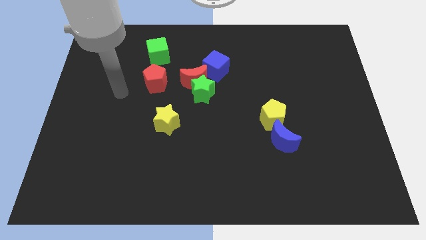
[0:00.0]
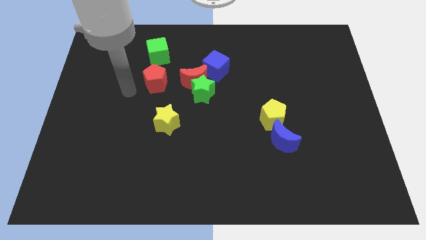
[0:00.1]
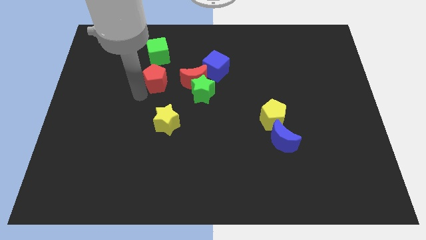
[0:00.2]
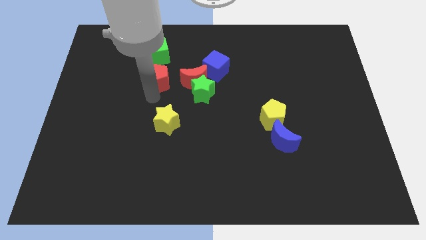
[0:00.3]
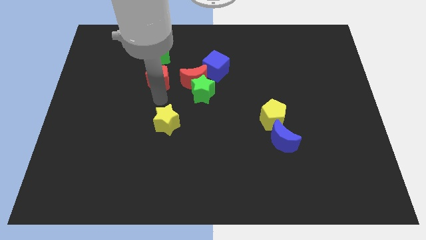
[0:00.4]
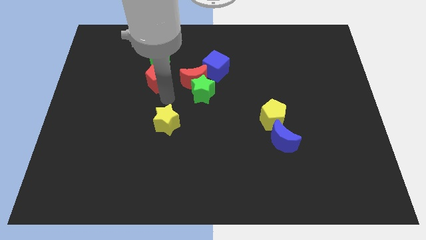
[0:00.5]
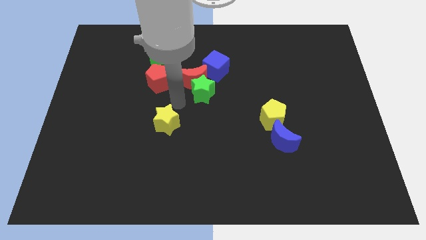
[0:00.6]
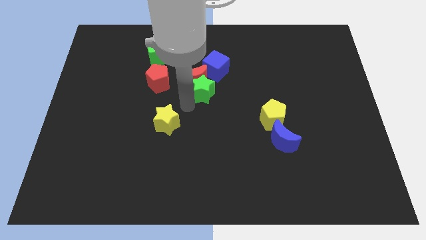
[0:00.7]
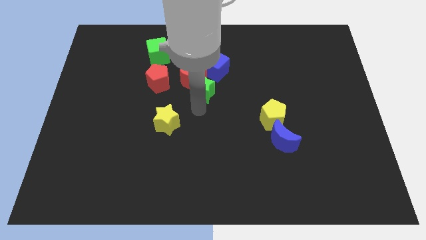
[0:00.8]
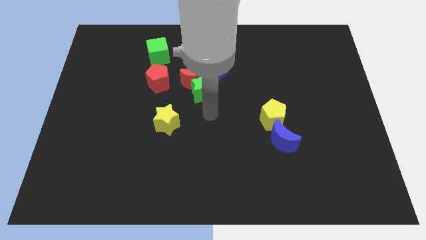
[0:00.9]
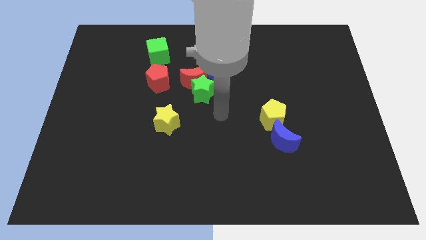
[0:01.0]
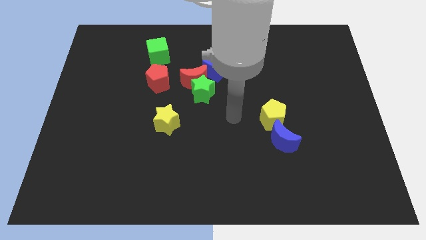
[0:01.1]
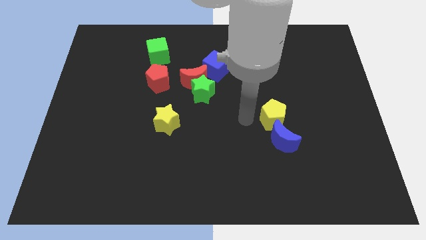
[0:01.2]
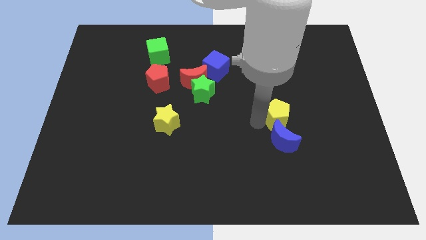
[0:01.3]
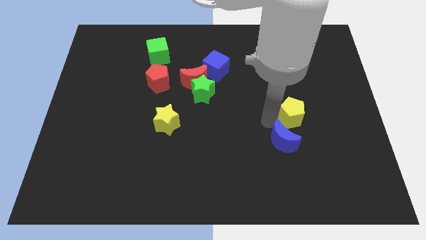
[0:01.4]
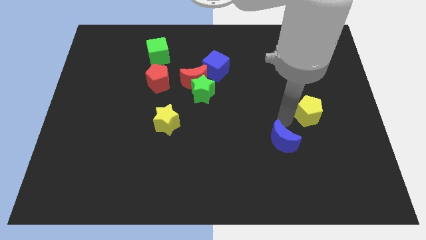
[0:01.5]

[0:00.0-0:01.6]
move the blue moon away from the yellow pentagon

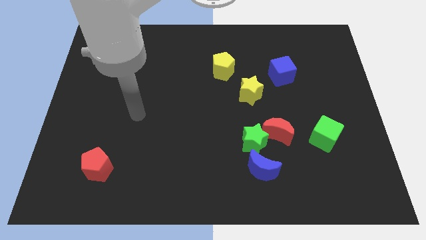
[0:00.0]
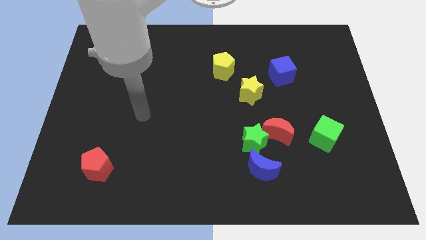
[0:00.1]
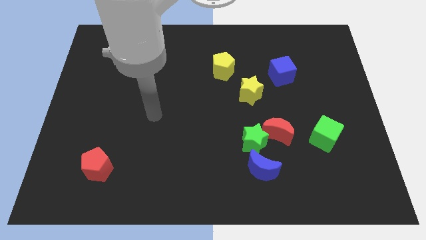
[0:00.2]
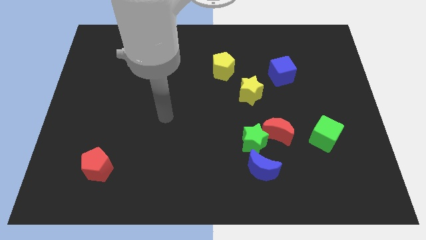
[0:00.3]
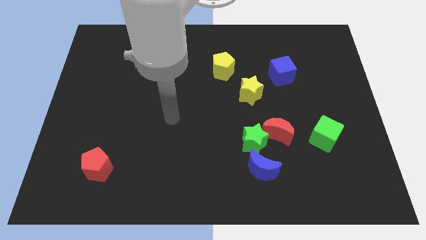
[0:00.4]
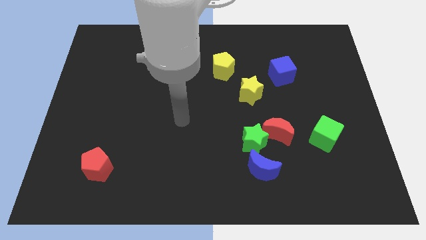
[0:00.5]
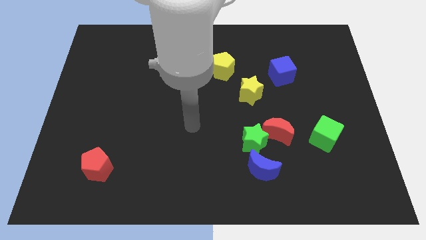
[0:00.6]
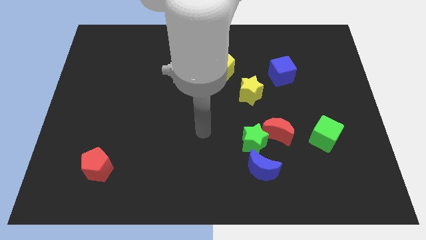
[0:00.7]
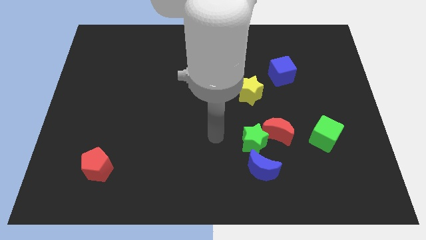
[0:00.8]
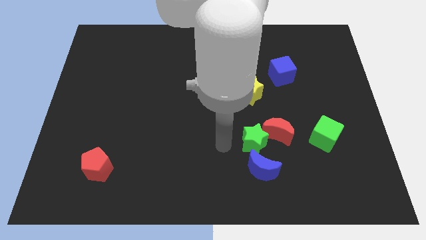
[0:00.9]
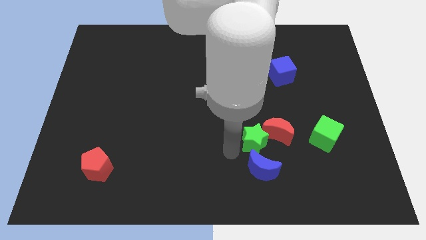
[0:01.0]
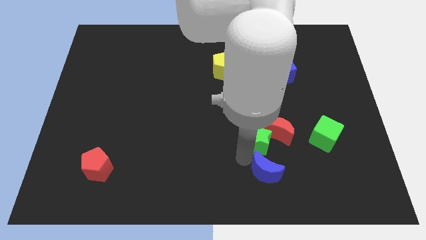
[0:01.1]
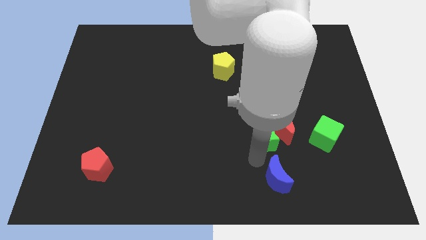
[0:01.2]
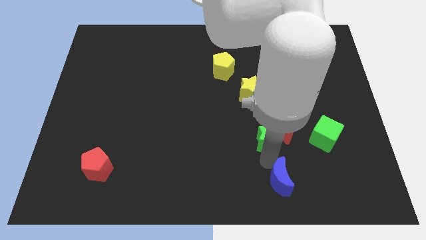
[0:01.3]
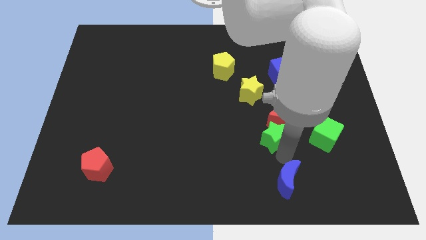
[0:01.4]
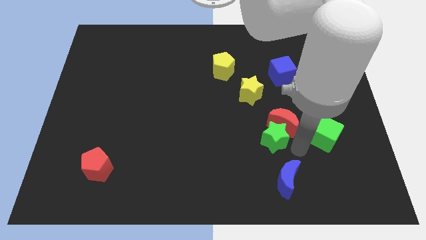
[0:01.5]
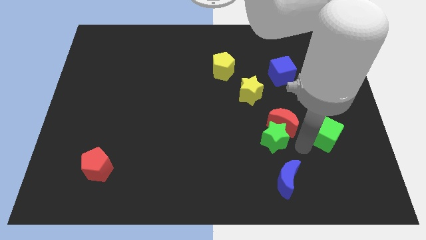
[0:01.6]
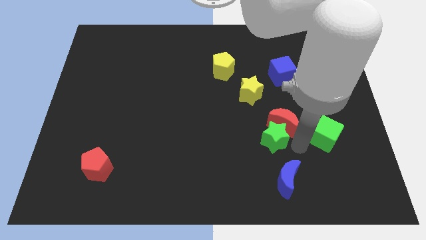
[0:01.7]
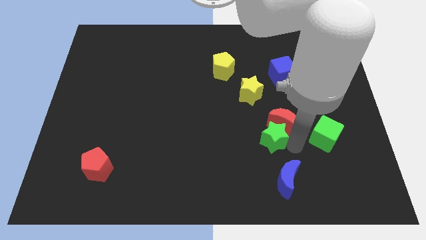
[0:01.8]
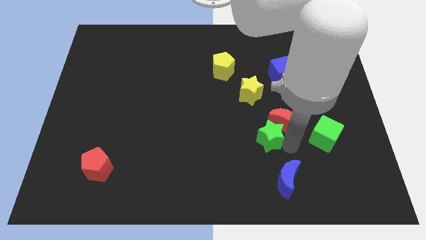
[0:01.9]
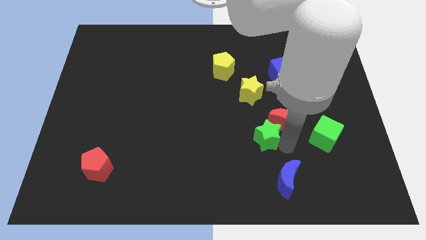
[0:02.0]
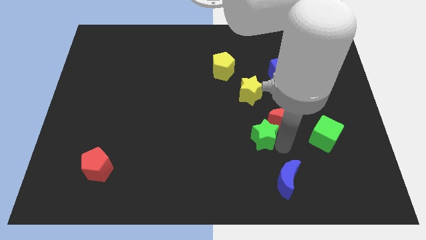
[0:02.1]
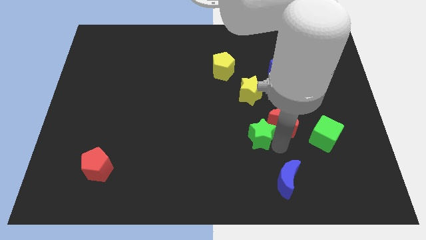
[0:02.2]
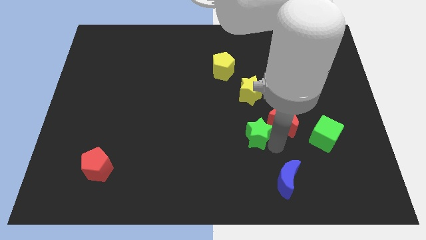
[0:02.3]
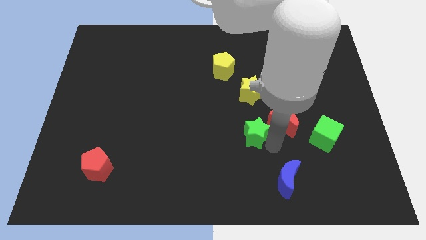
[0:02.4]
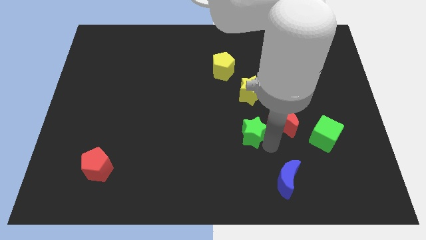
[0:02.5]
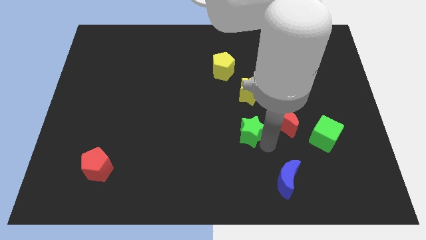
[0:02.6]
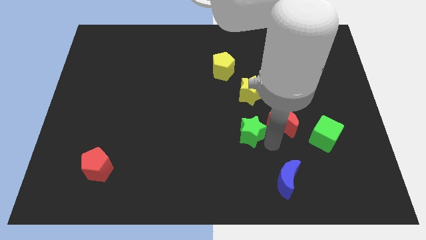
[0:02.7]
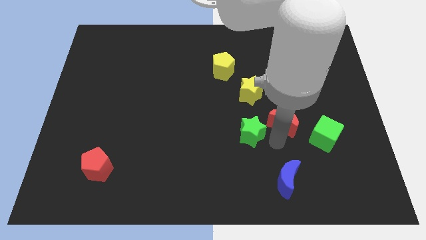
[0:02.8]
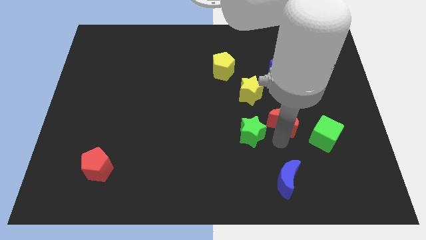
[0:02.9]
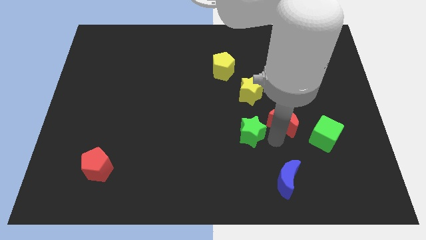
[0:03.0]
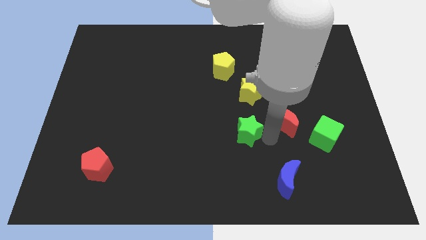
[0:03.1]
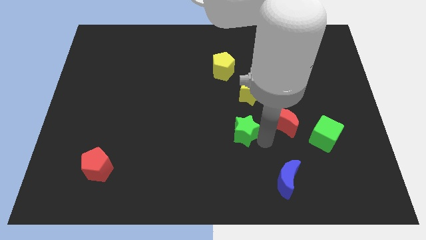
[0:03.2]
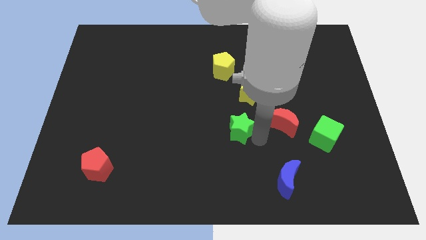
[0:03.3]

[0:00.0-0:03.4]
pull the green star apart from the red moon and blue moon

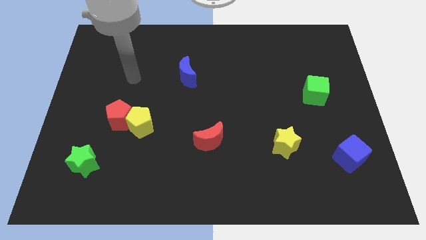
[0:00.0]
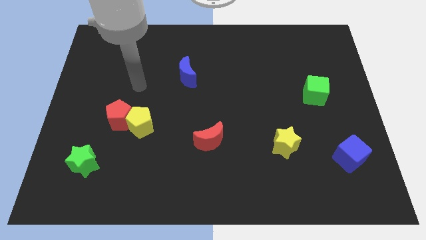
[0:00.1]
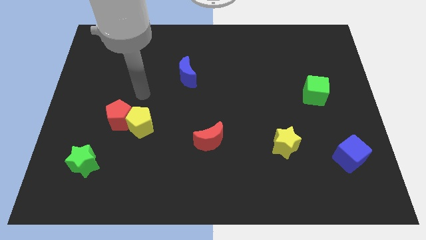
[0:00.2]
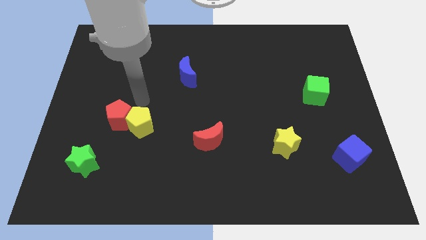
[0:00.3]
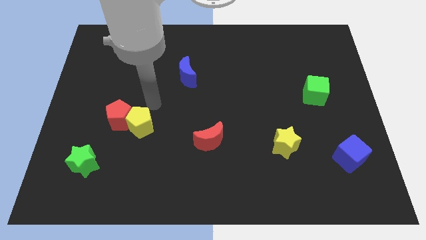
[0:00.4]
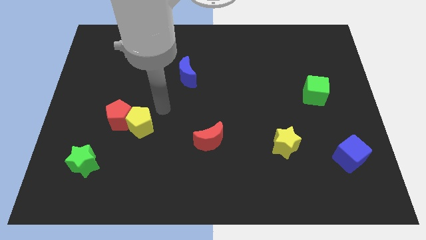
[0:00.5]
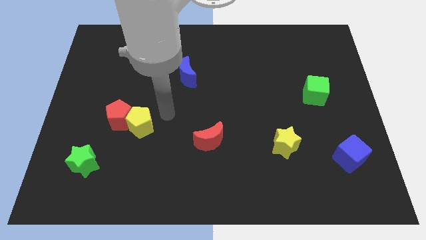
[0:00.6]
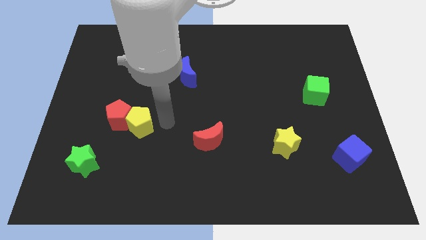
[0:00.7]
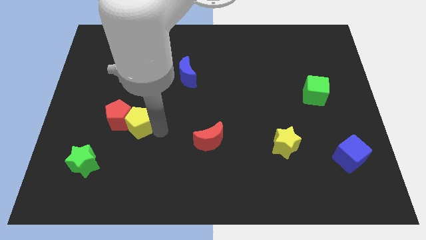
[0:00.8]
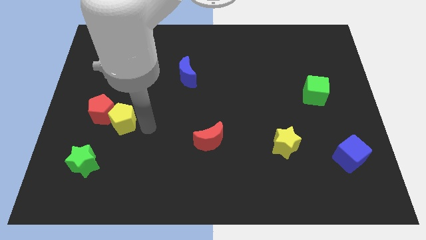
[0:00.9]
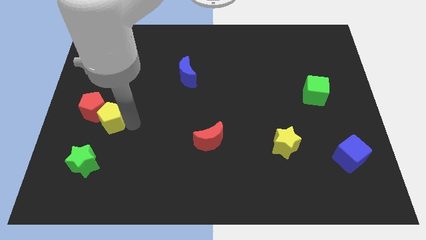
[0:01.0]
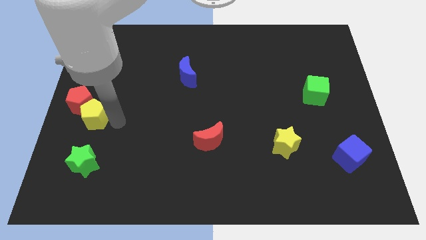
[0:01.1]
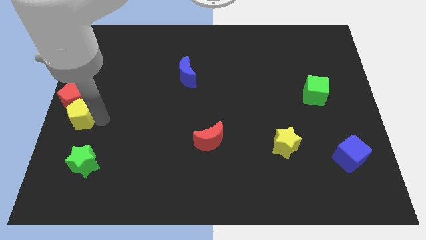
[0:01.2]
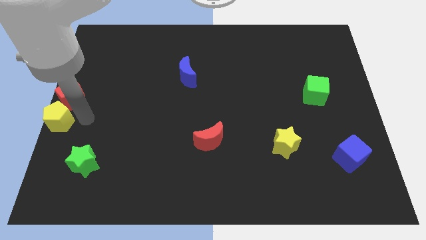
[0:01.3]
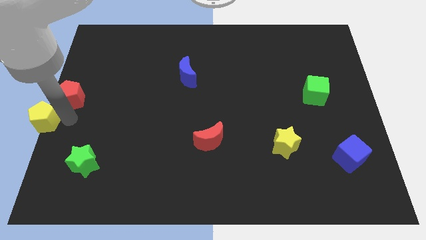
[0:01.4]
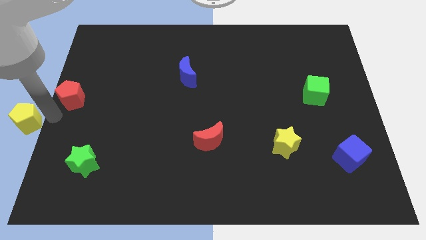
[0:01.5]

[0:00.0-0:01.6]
separate the red pentagon from the yellow pentagon

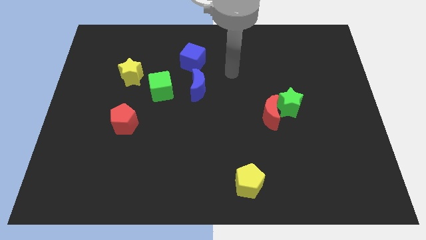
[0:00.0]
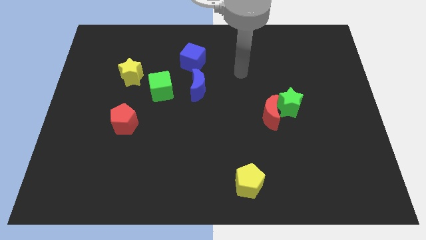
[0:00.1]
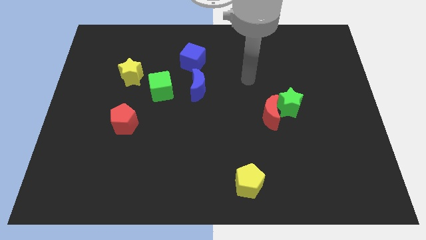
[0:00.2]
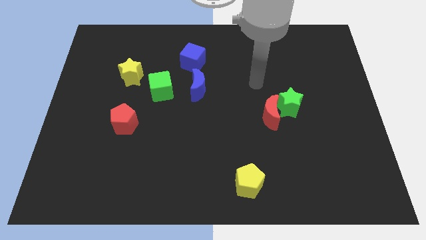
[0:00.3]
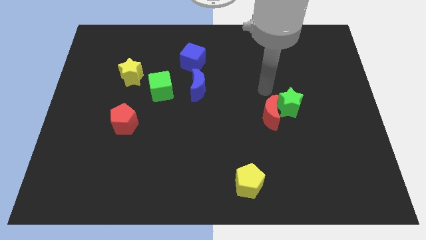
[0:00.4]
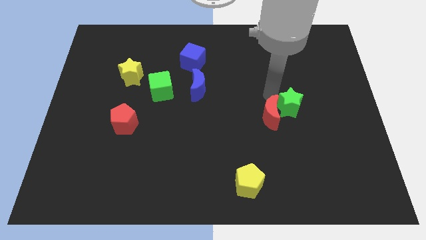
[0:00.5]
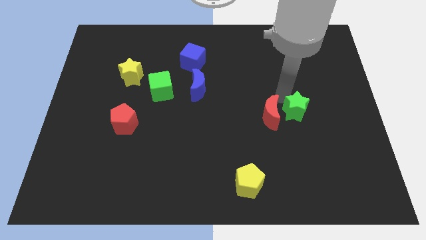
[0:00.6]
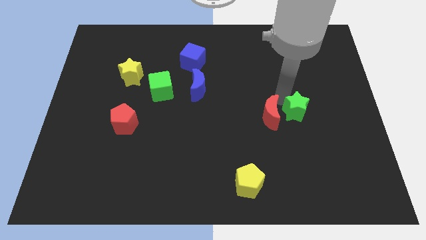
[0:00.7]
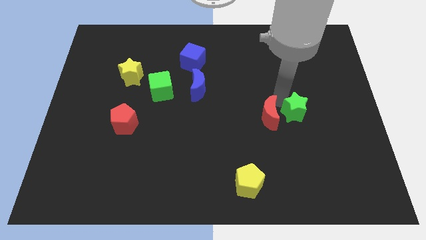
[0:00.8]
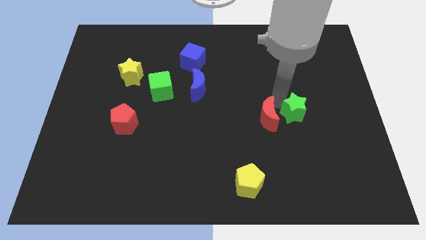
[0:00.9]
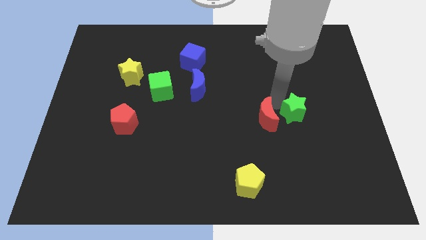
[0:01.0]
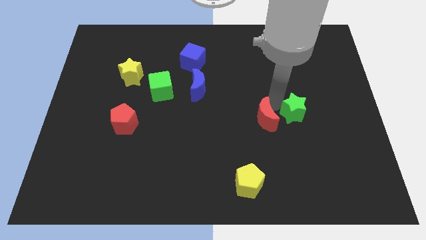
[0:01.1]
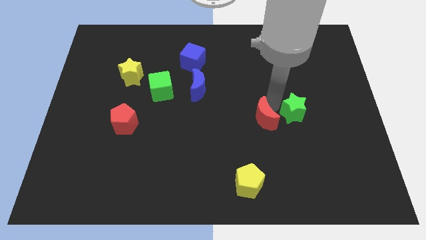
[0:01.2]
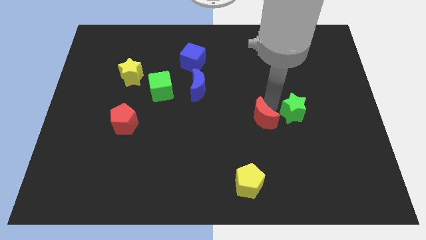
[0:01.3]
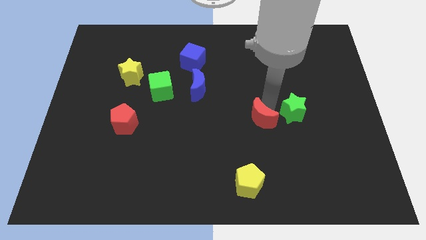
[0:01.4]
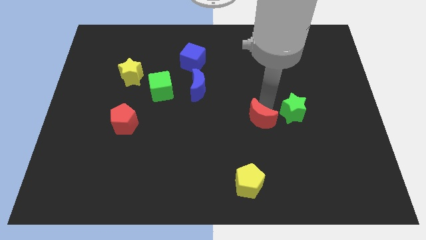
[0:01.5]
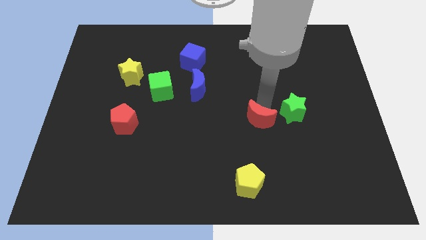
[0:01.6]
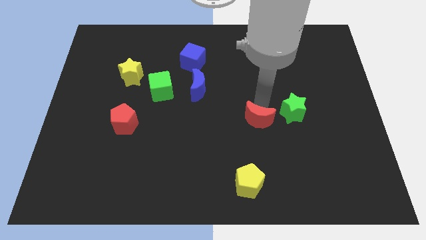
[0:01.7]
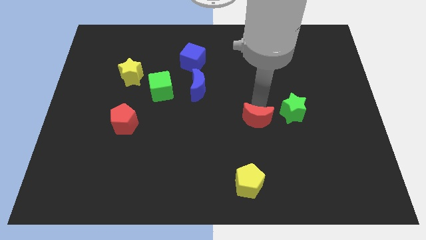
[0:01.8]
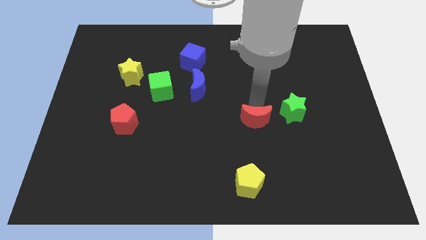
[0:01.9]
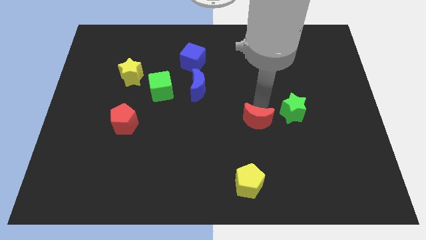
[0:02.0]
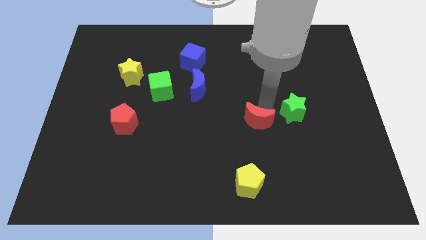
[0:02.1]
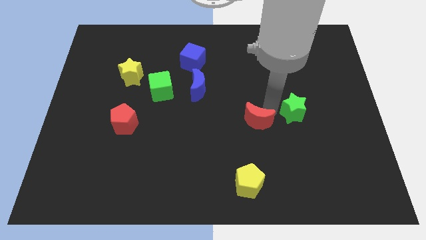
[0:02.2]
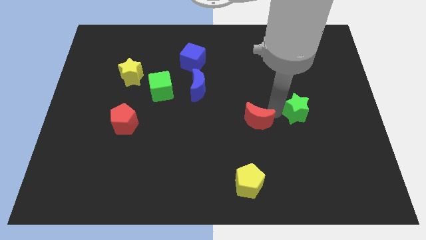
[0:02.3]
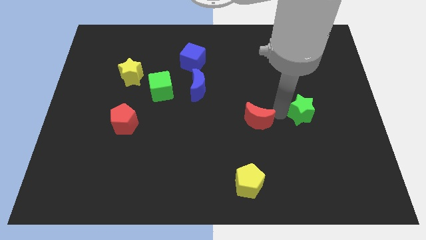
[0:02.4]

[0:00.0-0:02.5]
separate the red moon from the green star

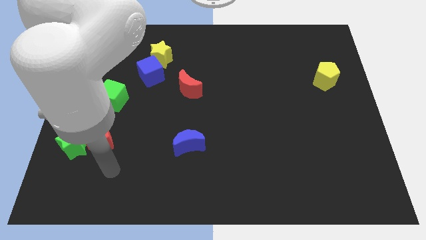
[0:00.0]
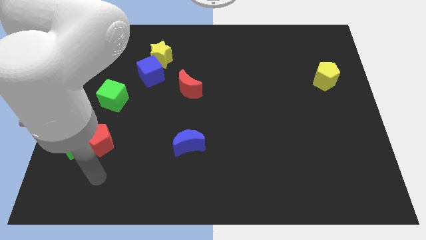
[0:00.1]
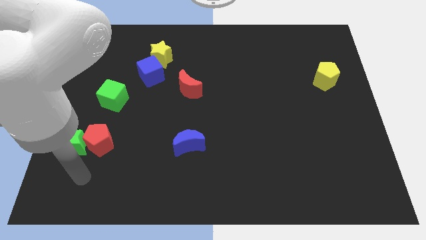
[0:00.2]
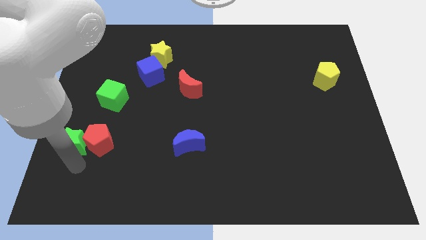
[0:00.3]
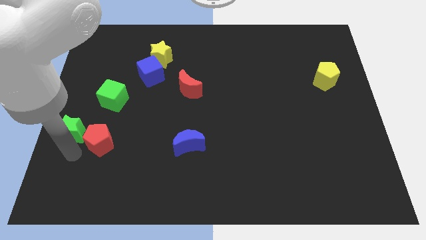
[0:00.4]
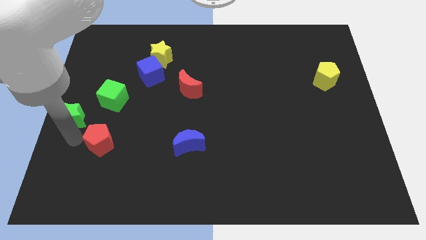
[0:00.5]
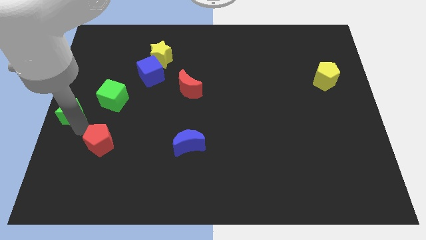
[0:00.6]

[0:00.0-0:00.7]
move the red pentagon away from the green star
